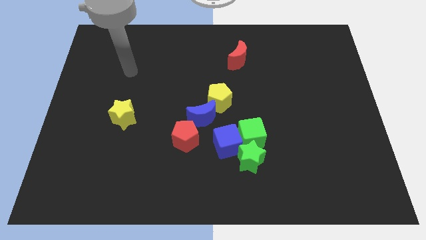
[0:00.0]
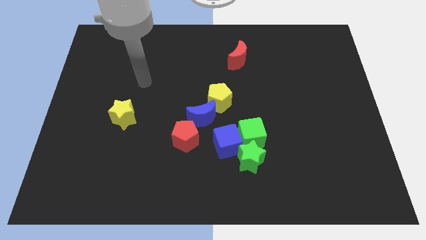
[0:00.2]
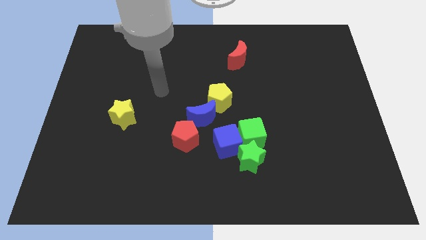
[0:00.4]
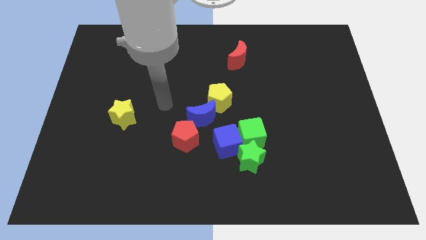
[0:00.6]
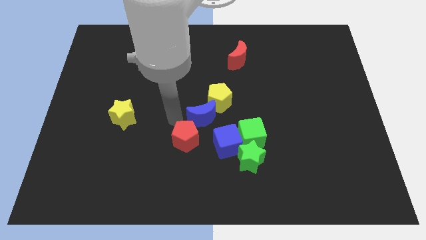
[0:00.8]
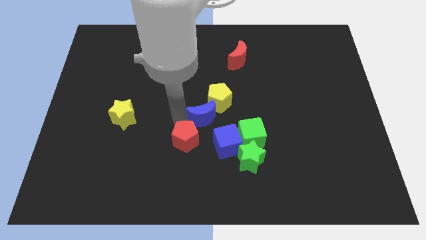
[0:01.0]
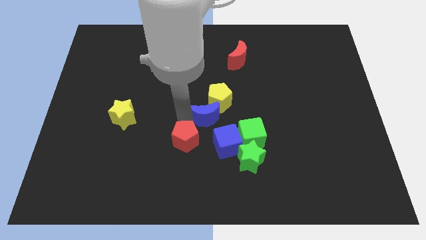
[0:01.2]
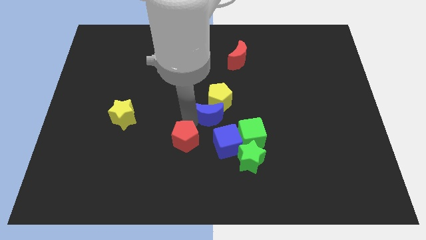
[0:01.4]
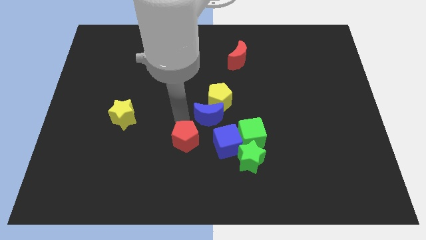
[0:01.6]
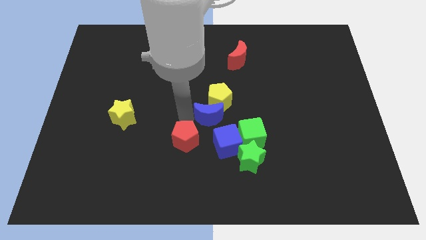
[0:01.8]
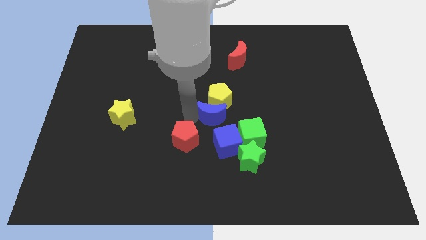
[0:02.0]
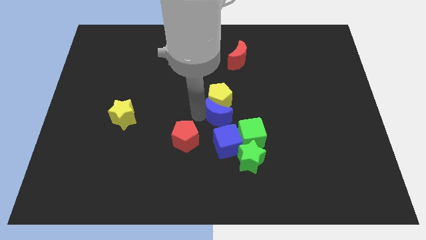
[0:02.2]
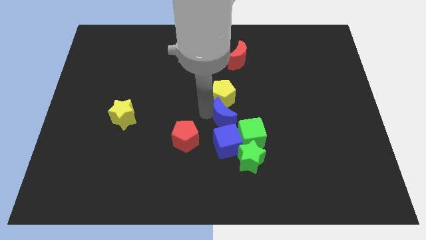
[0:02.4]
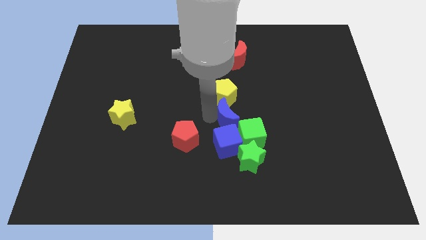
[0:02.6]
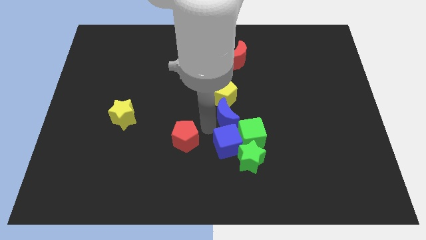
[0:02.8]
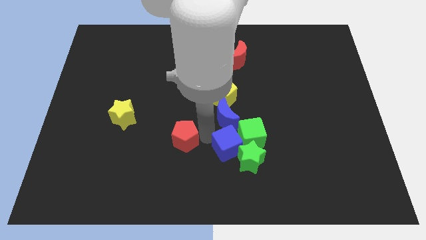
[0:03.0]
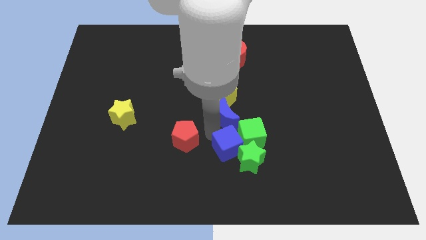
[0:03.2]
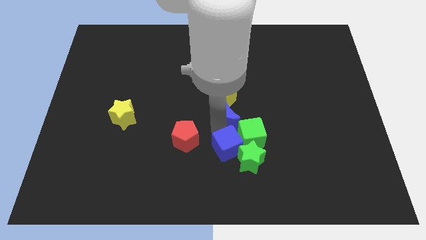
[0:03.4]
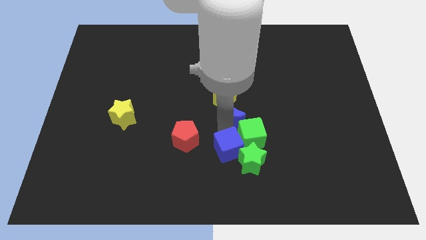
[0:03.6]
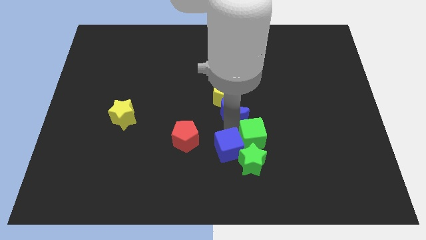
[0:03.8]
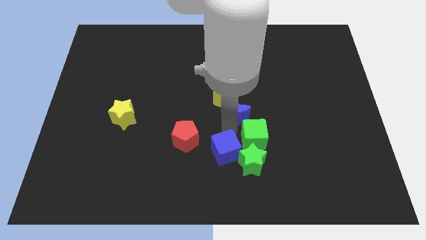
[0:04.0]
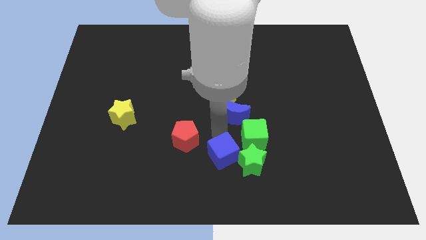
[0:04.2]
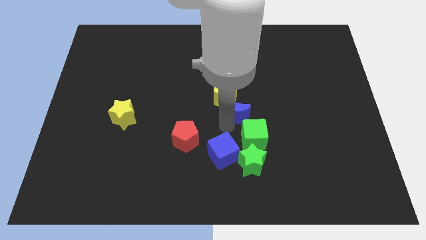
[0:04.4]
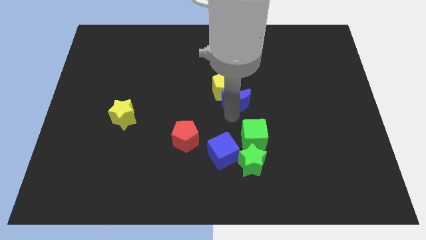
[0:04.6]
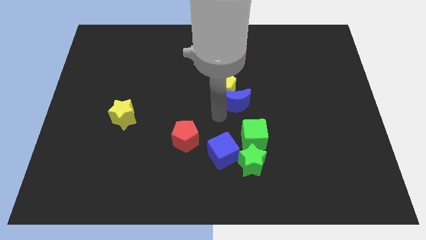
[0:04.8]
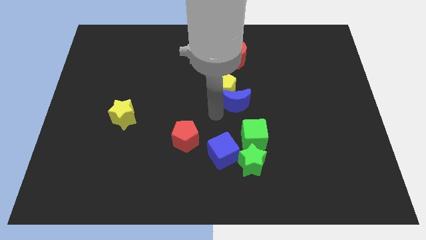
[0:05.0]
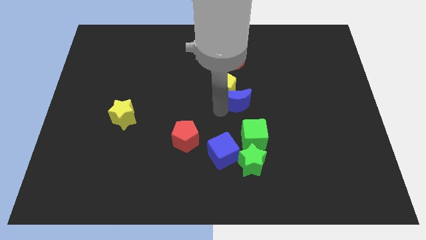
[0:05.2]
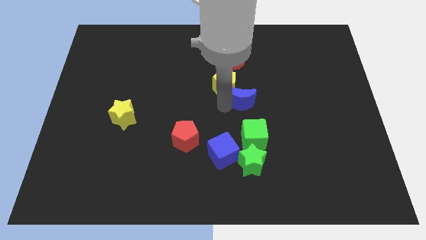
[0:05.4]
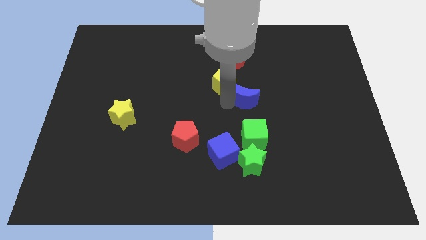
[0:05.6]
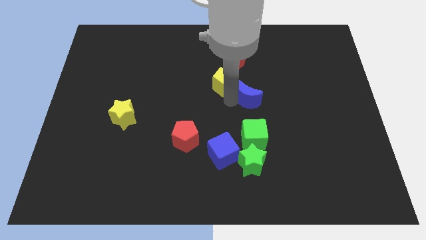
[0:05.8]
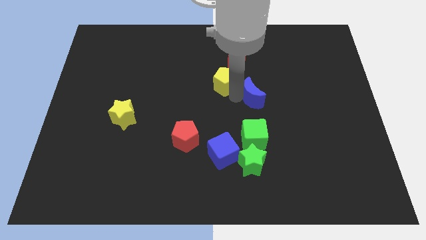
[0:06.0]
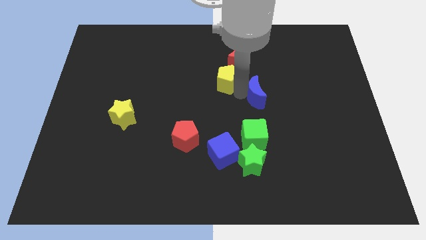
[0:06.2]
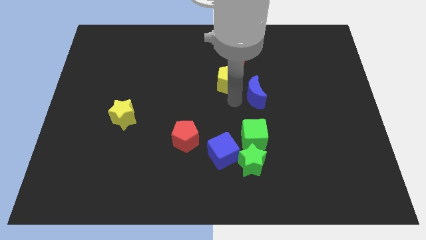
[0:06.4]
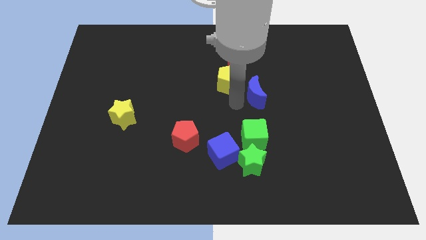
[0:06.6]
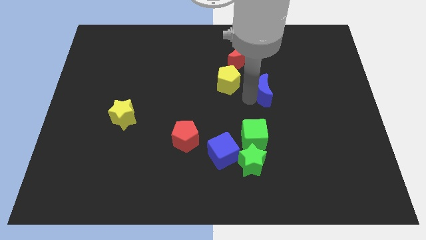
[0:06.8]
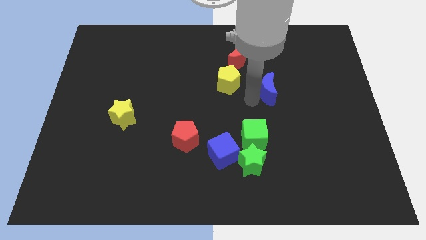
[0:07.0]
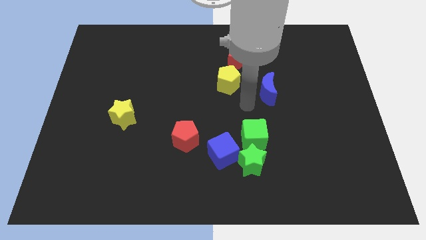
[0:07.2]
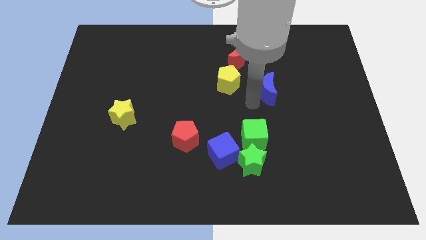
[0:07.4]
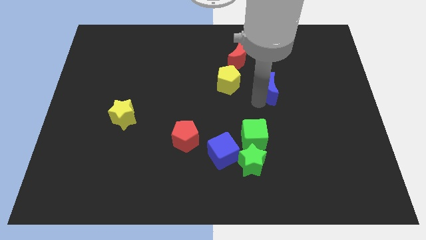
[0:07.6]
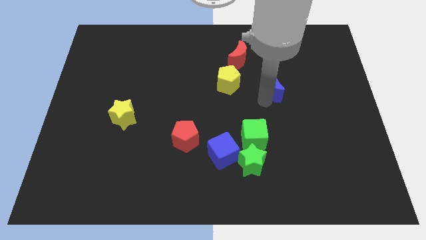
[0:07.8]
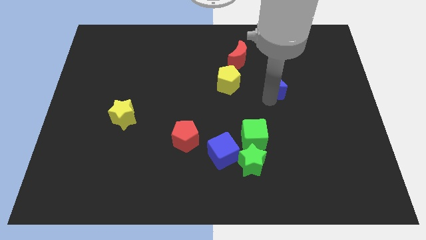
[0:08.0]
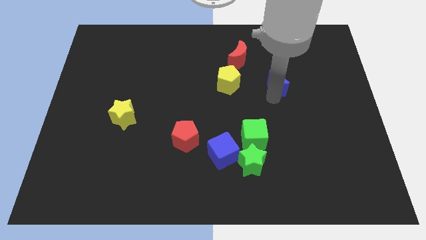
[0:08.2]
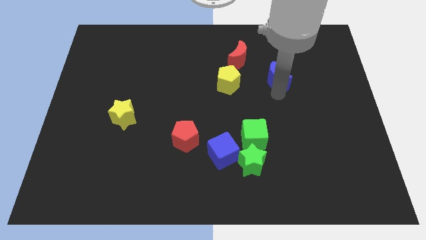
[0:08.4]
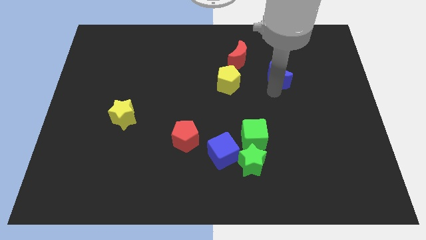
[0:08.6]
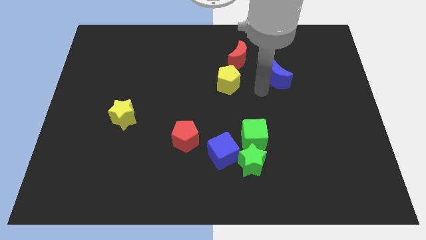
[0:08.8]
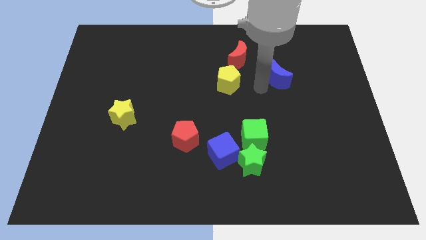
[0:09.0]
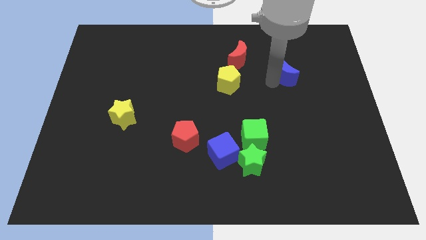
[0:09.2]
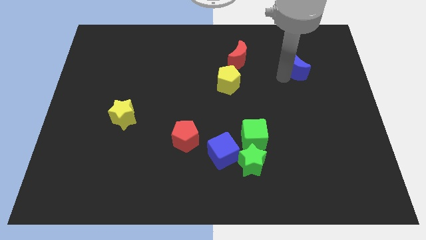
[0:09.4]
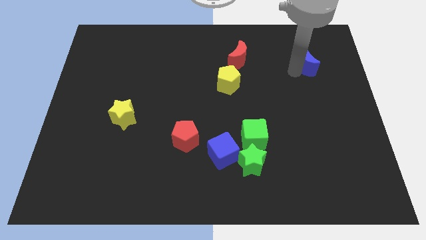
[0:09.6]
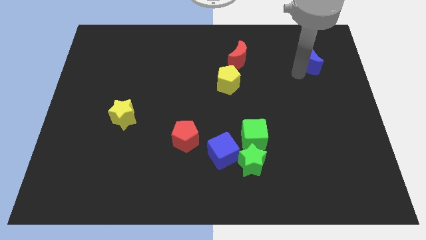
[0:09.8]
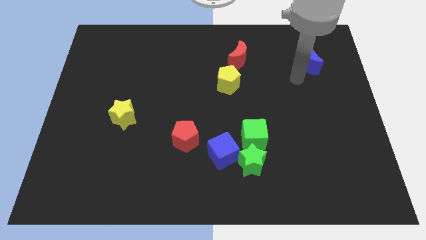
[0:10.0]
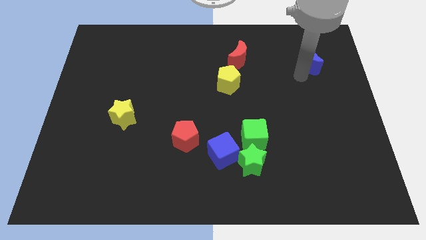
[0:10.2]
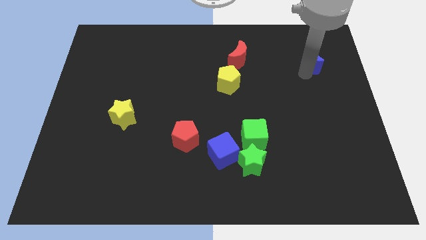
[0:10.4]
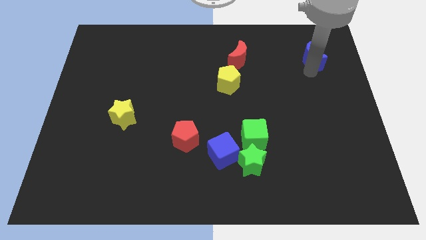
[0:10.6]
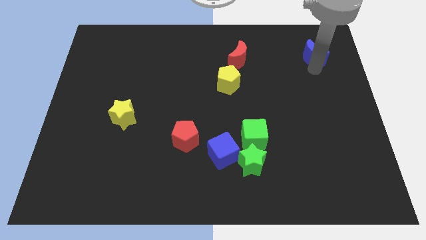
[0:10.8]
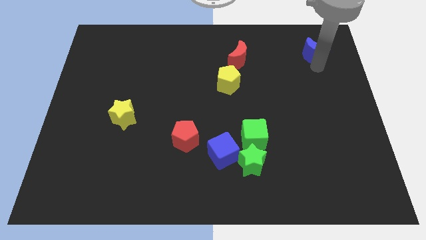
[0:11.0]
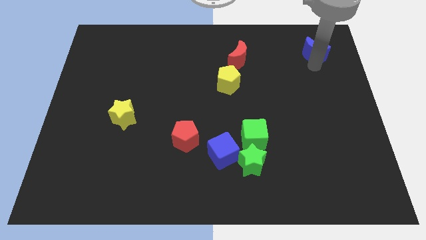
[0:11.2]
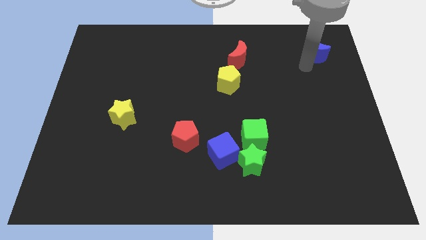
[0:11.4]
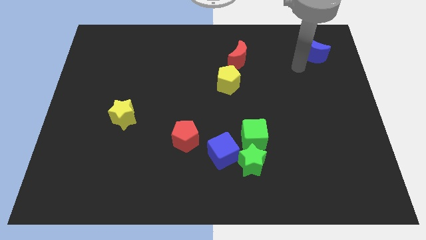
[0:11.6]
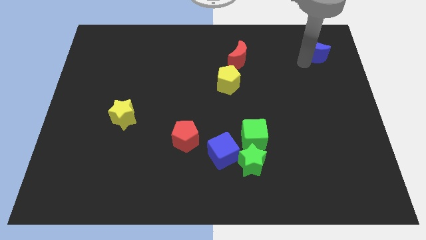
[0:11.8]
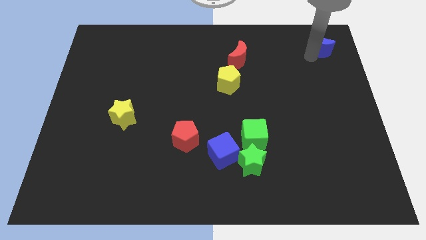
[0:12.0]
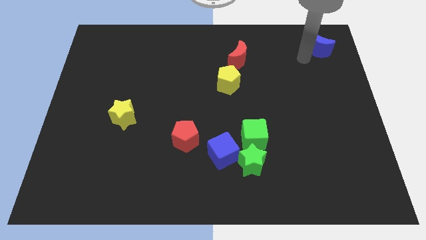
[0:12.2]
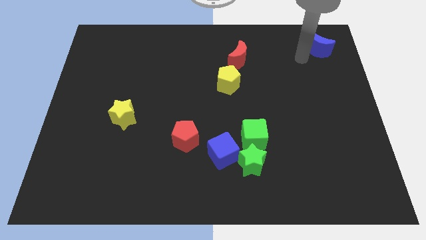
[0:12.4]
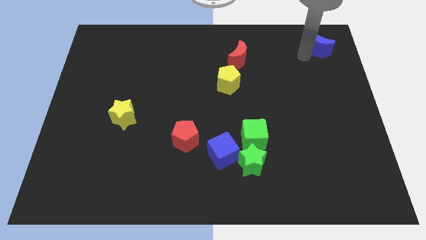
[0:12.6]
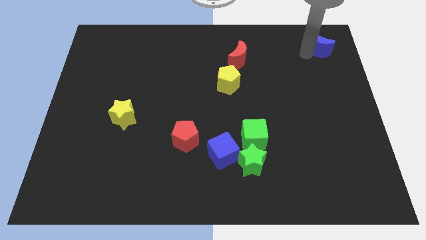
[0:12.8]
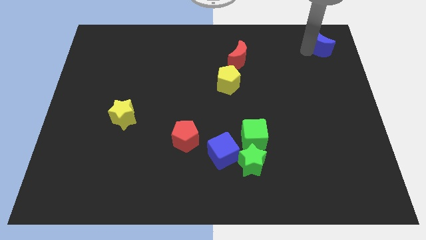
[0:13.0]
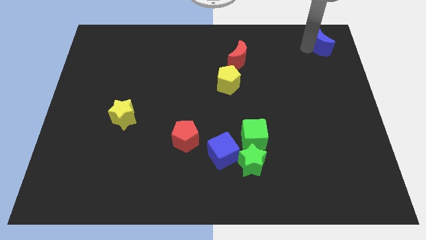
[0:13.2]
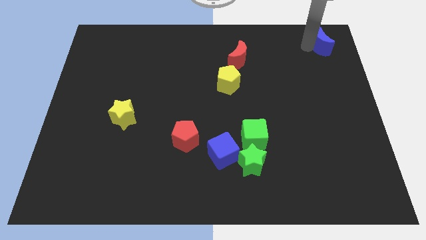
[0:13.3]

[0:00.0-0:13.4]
slide the blue moon to the upper right corner
